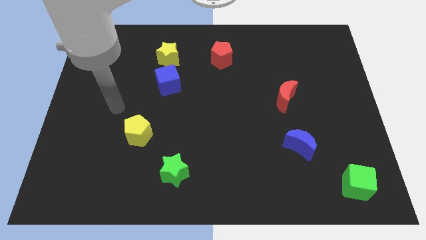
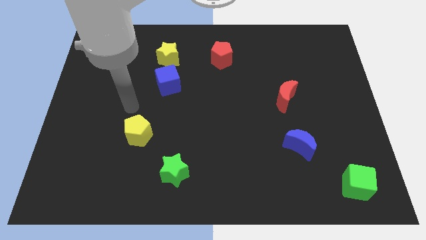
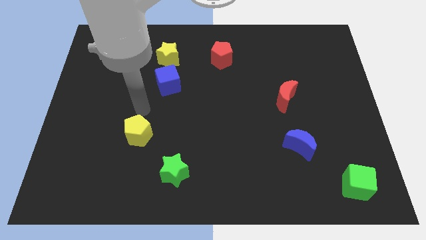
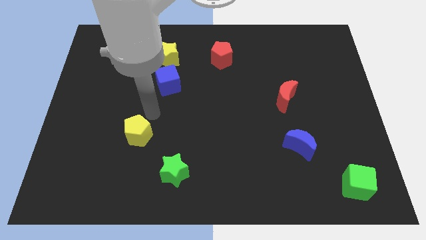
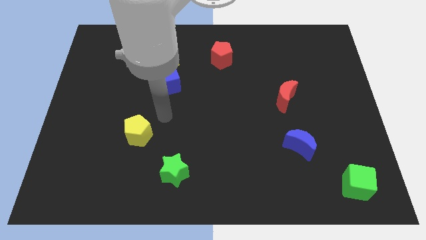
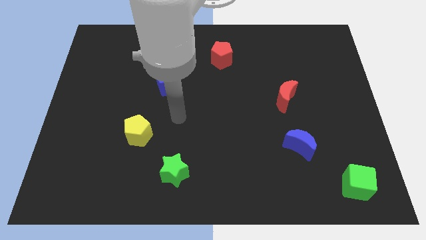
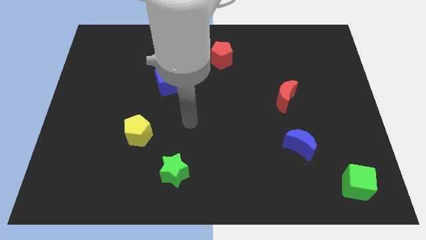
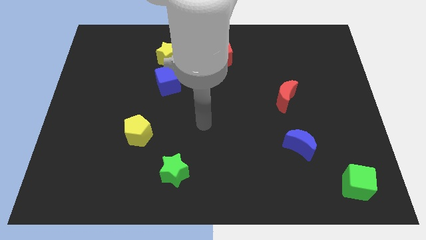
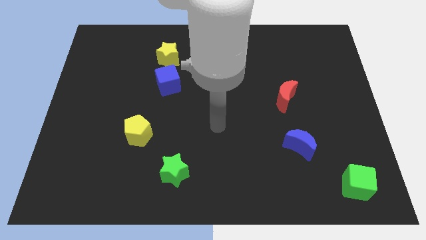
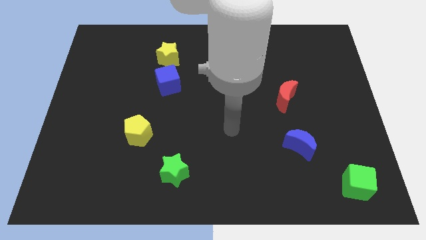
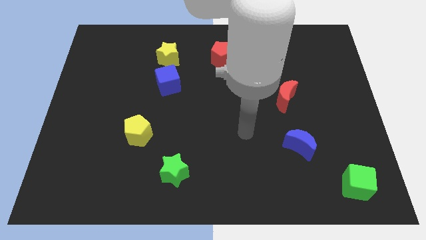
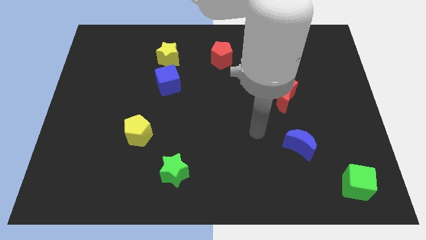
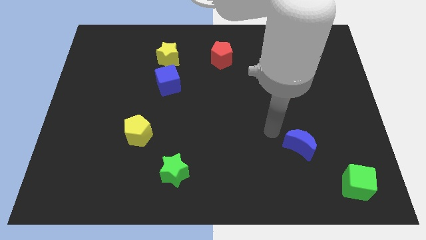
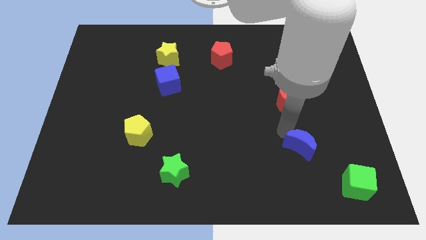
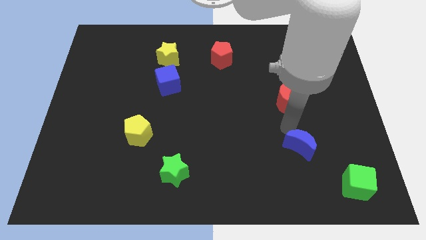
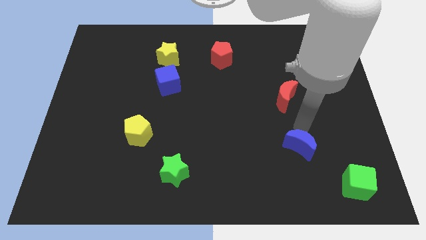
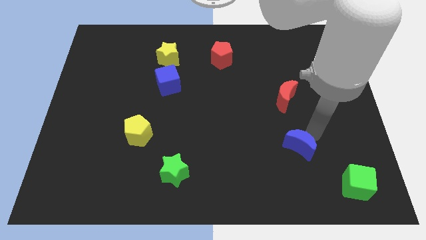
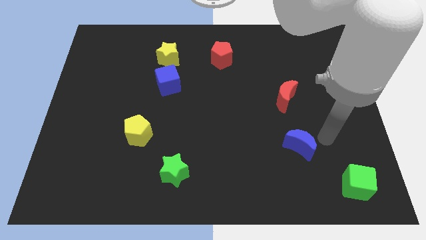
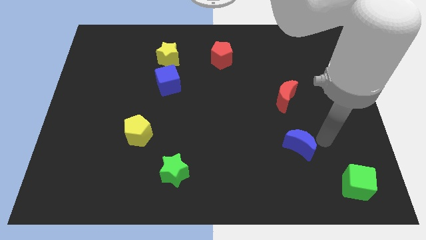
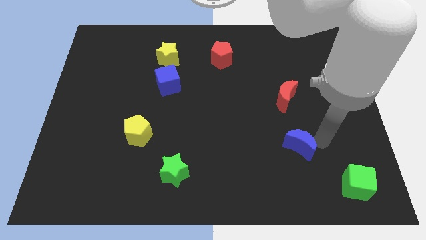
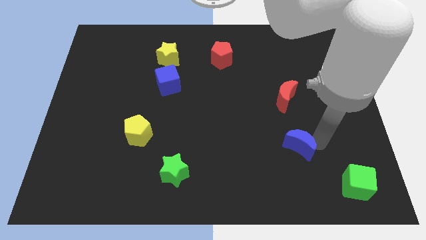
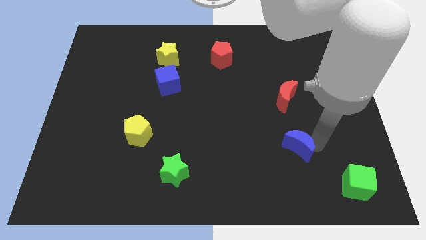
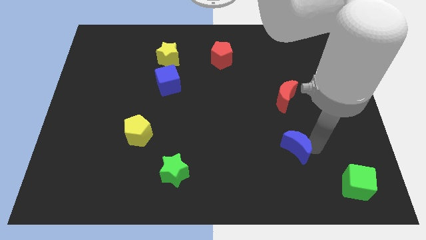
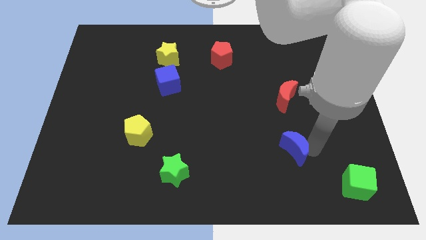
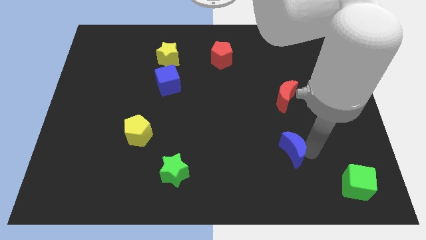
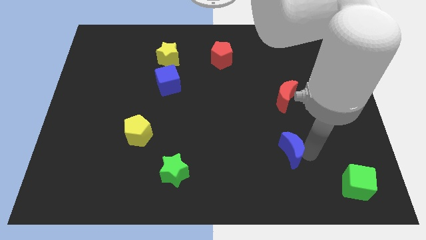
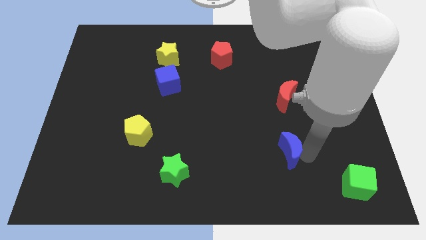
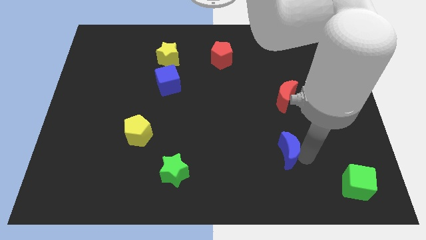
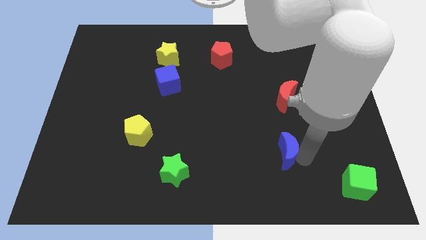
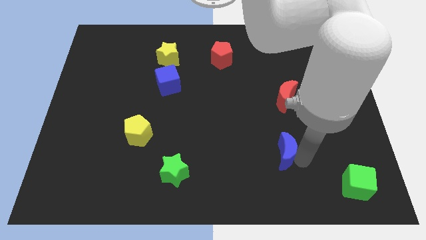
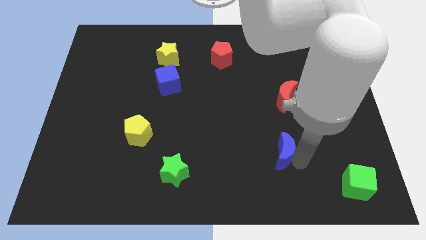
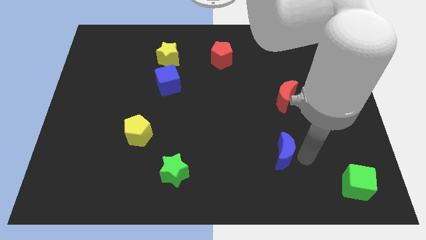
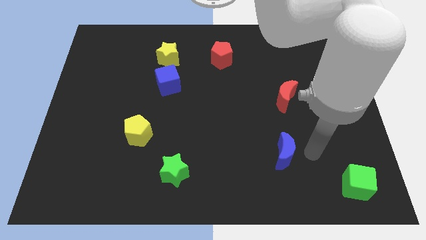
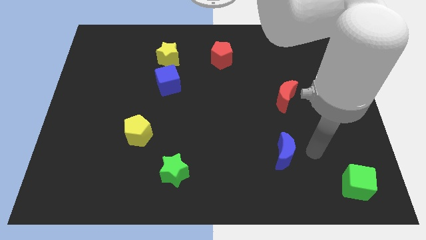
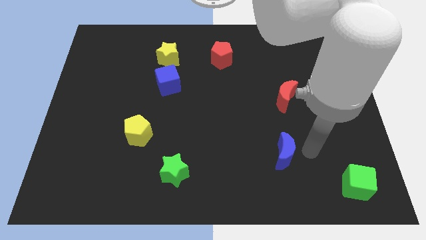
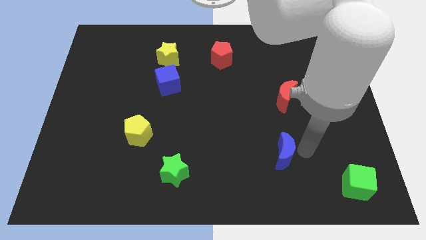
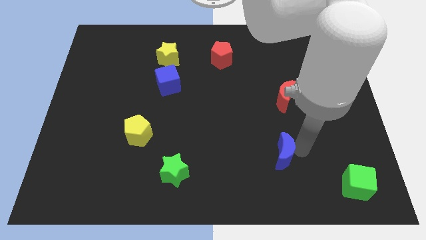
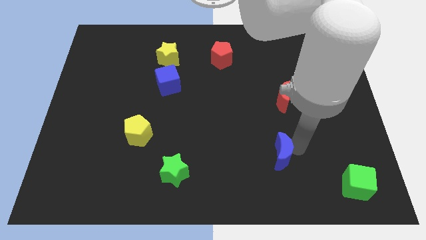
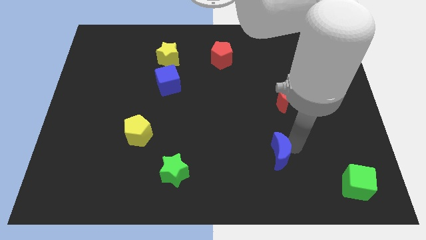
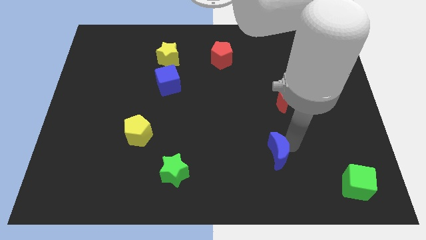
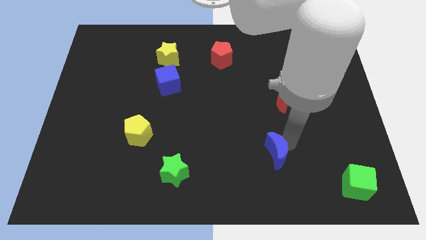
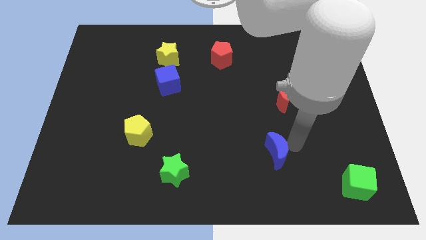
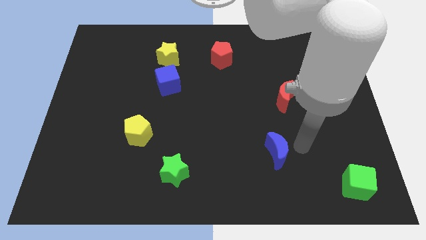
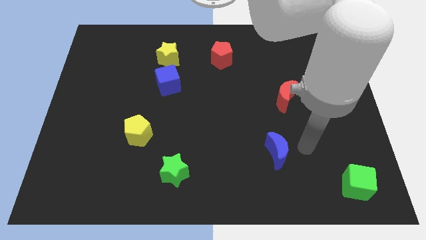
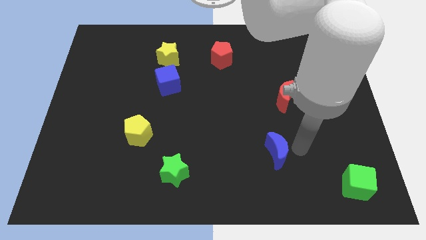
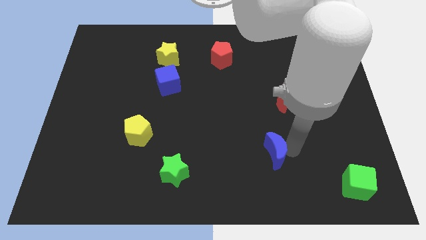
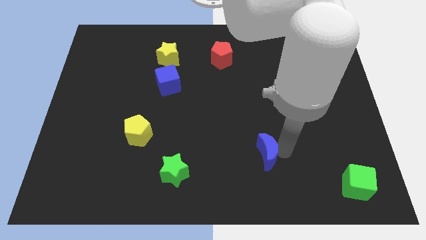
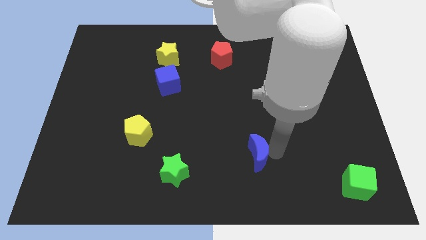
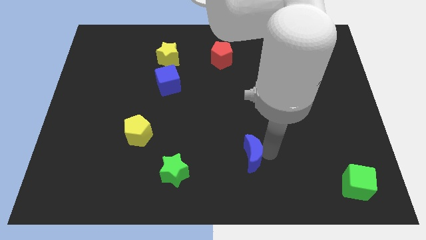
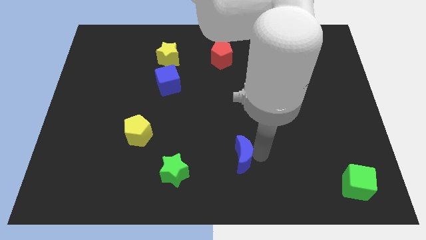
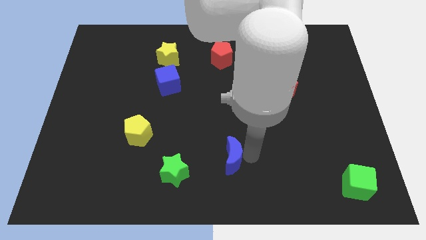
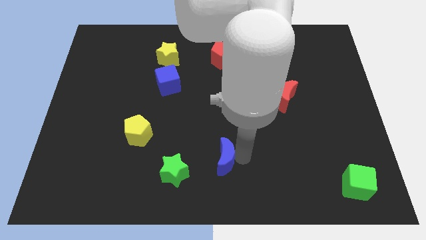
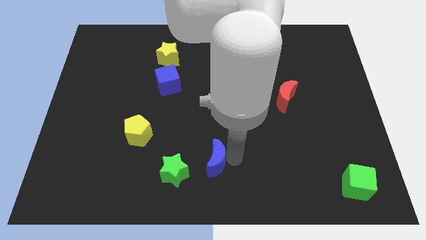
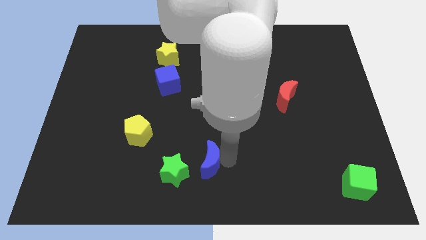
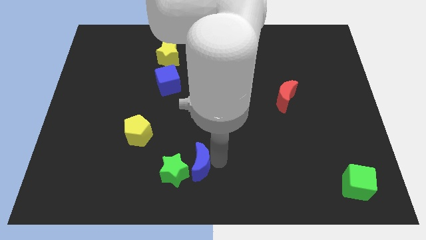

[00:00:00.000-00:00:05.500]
move the blue moon to the green star

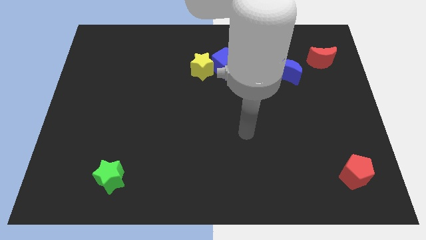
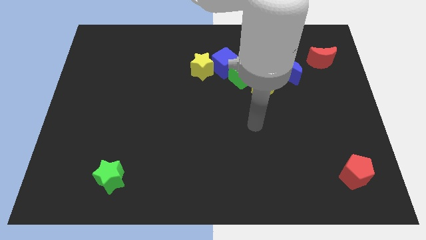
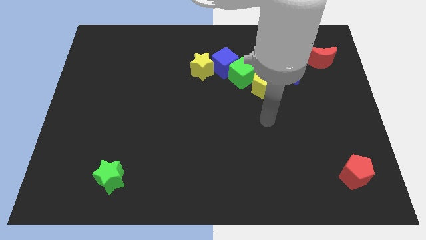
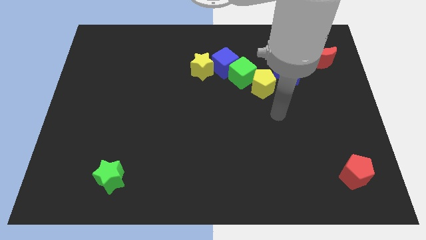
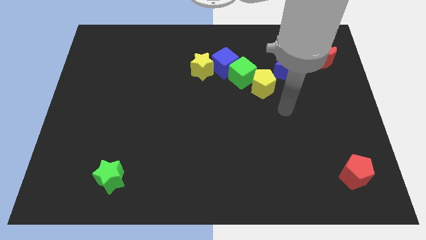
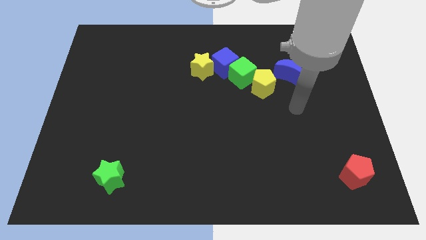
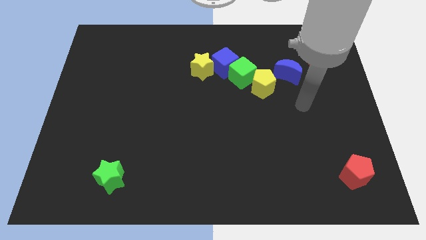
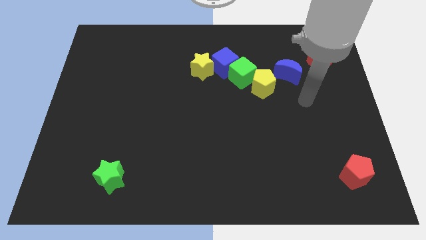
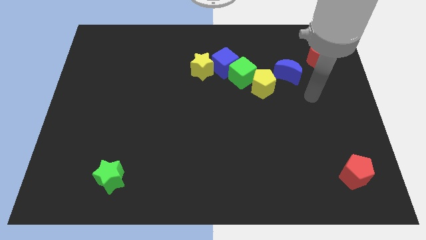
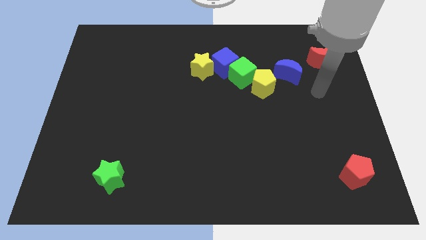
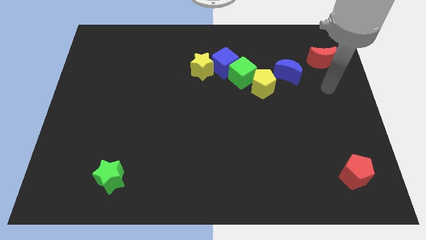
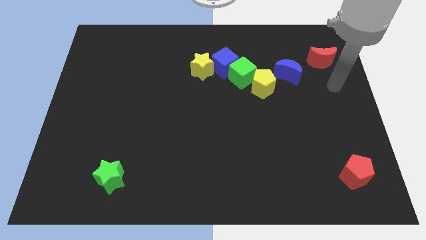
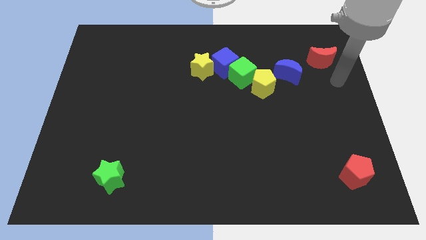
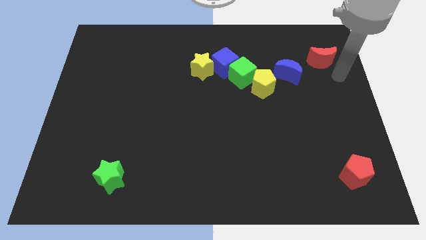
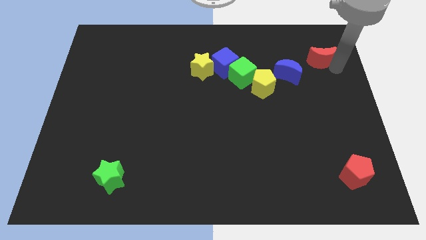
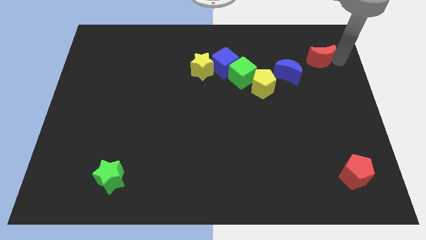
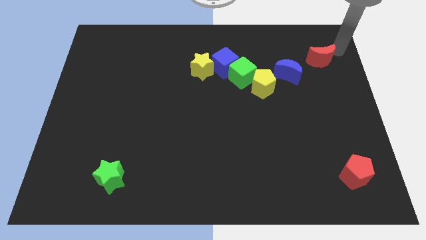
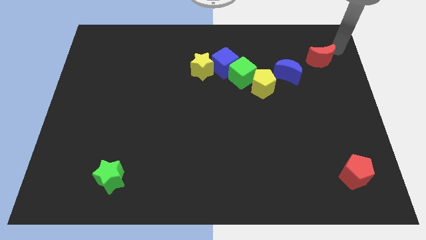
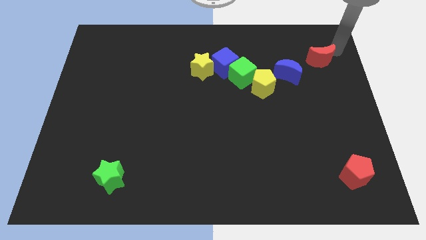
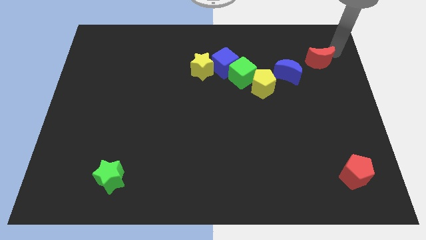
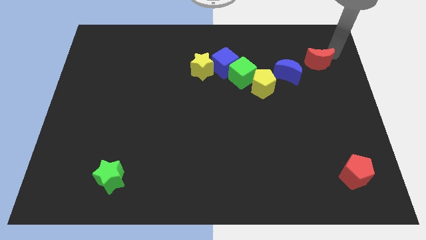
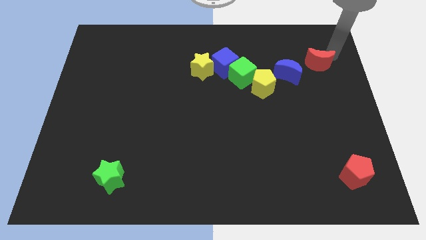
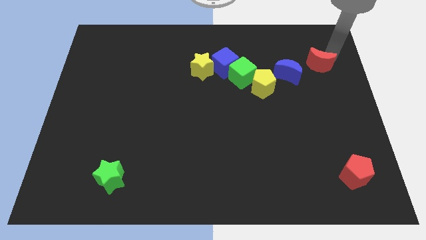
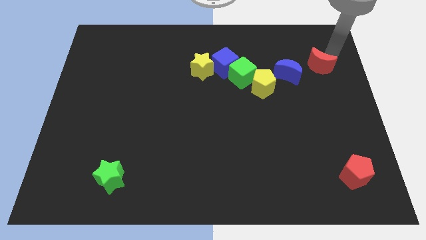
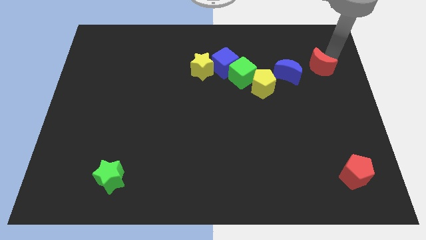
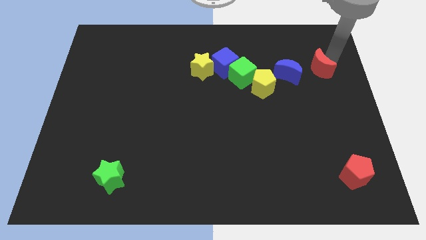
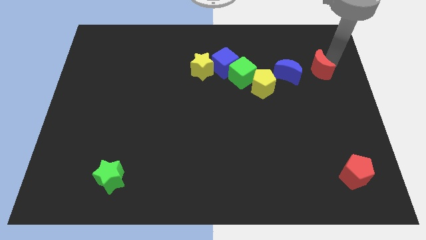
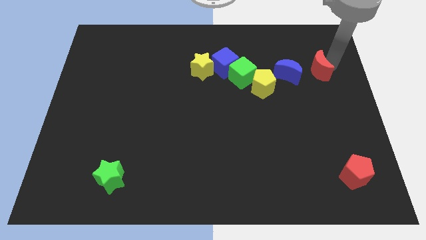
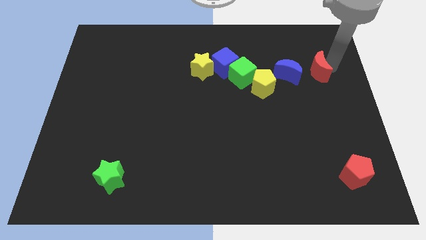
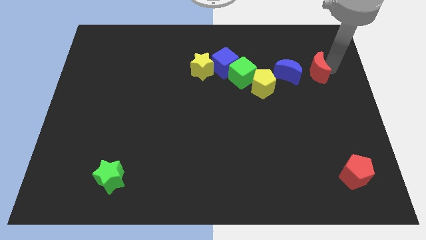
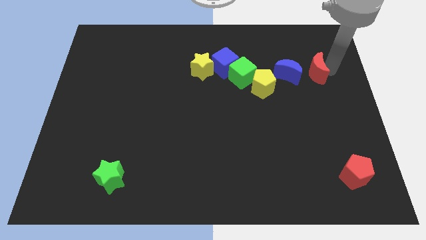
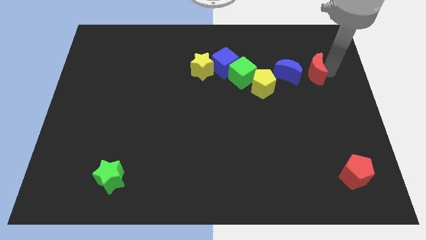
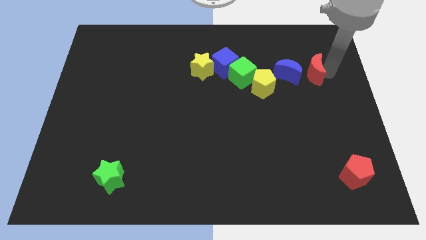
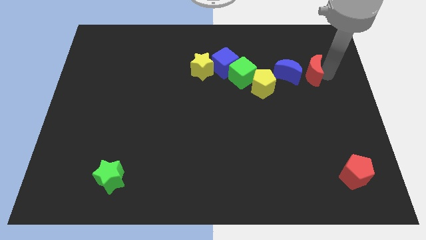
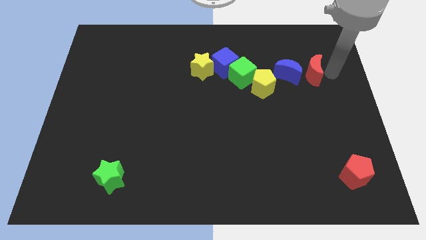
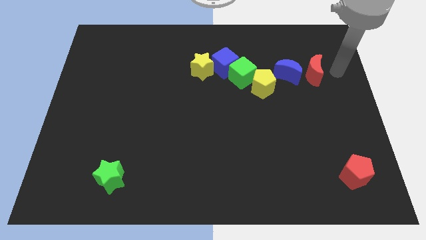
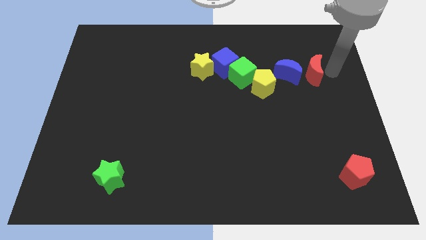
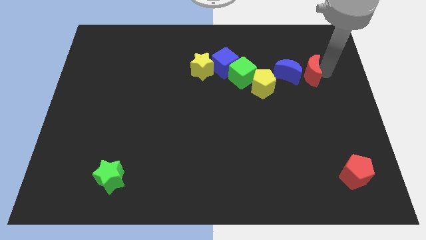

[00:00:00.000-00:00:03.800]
move the red moon to the blue moon
